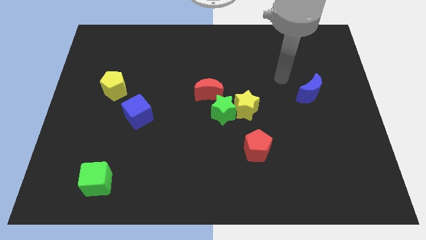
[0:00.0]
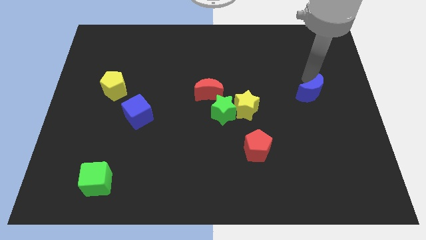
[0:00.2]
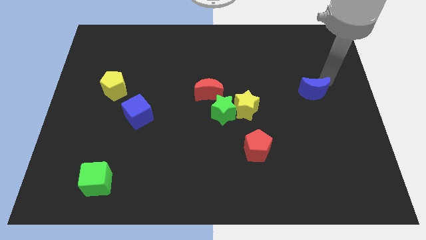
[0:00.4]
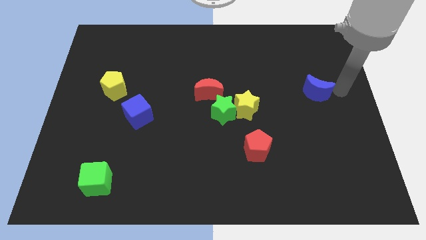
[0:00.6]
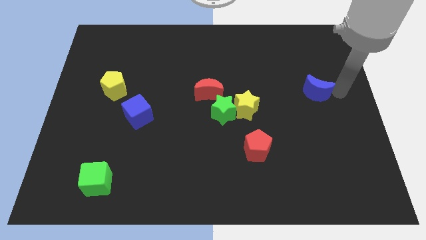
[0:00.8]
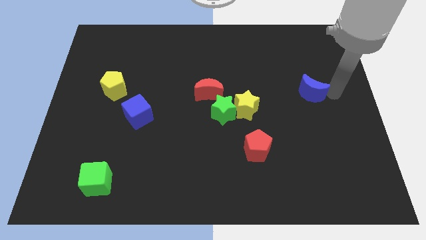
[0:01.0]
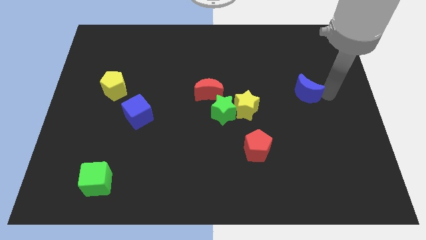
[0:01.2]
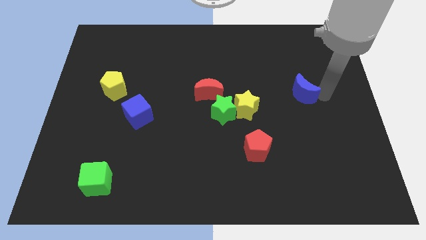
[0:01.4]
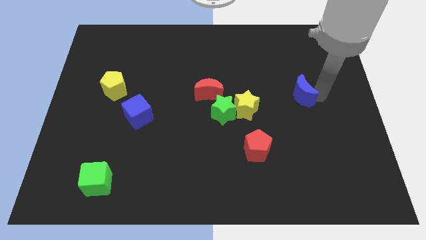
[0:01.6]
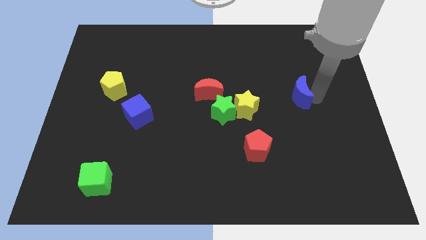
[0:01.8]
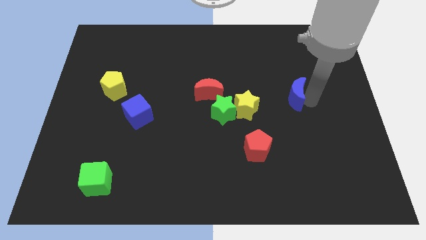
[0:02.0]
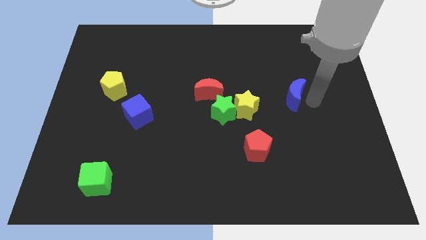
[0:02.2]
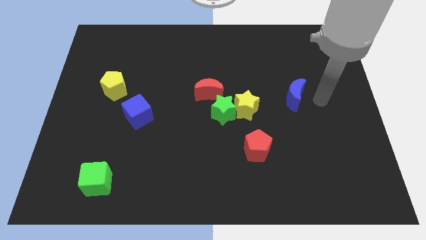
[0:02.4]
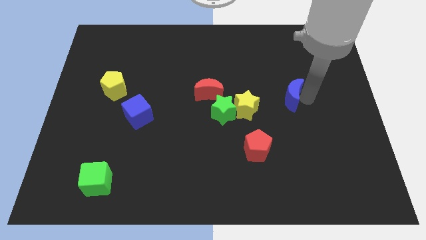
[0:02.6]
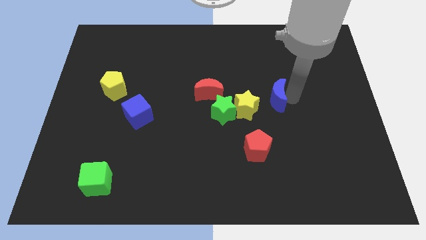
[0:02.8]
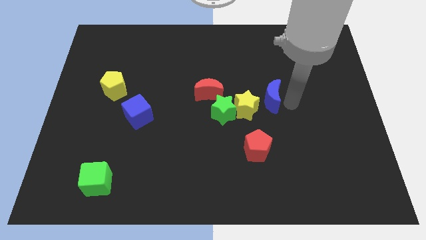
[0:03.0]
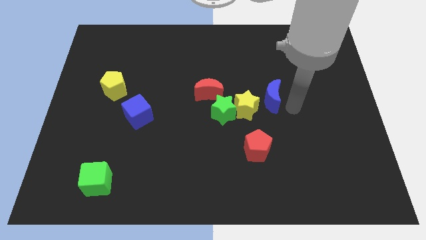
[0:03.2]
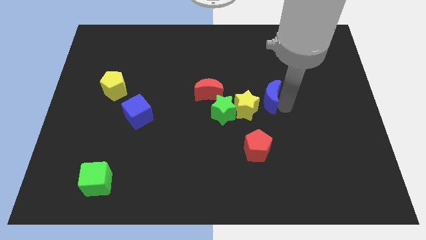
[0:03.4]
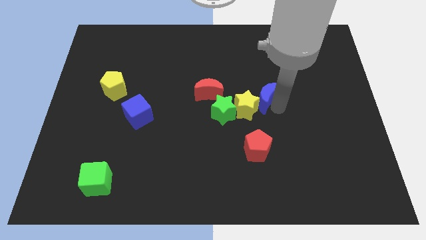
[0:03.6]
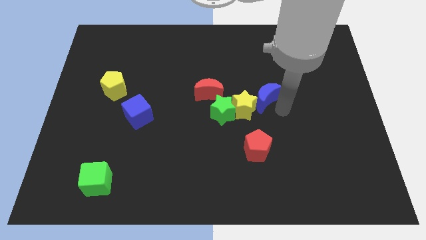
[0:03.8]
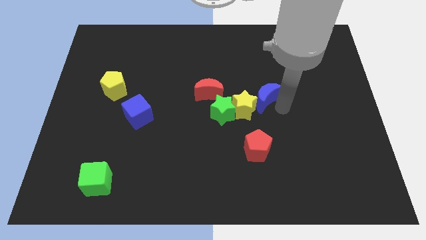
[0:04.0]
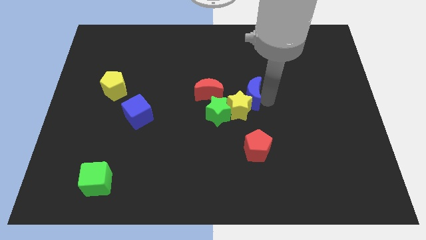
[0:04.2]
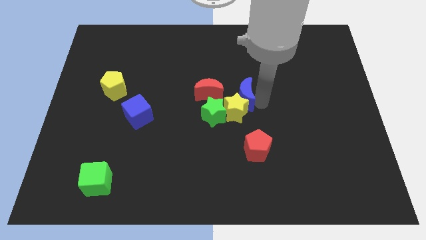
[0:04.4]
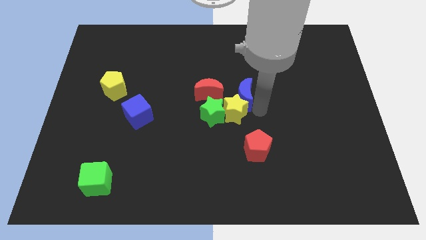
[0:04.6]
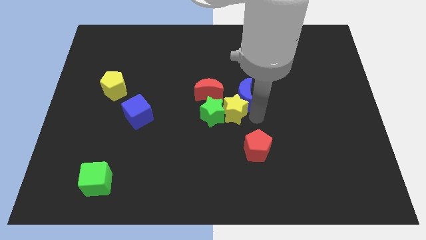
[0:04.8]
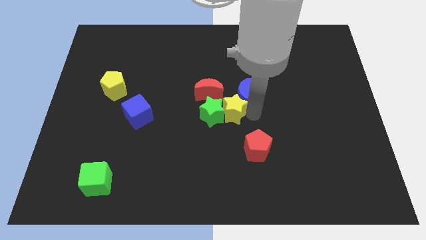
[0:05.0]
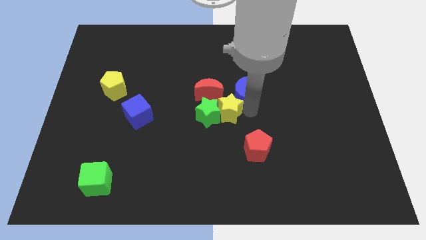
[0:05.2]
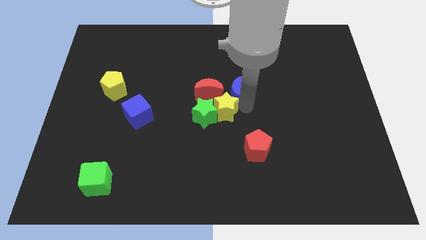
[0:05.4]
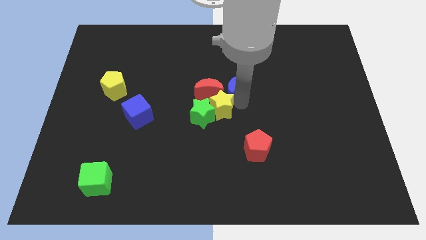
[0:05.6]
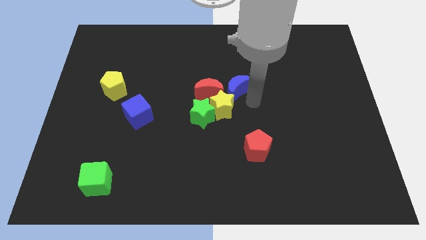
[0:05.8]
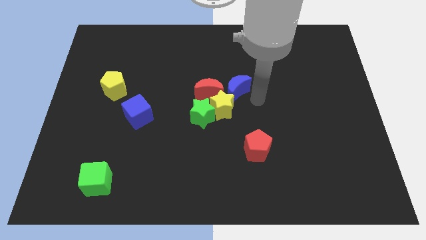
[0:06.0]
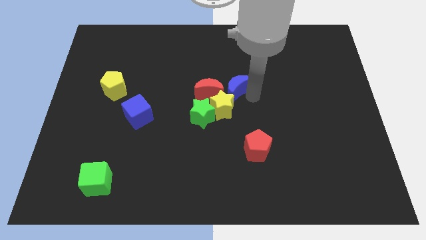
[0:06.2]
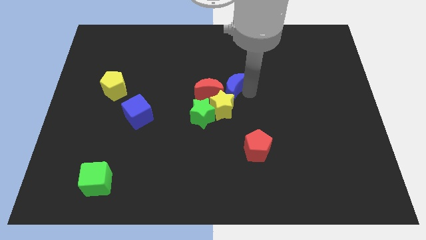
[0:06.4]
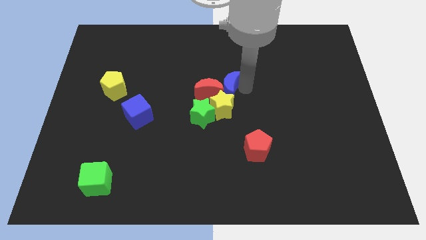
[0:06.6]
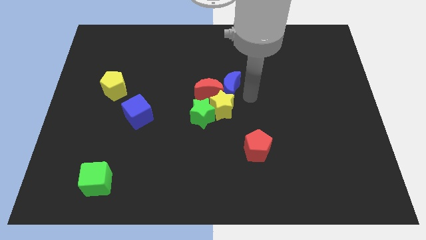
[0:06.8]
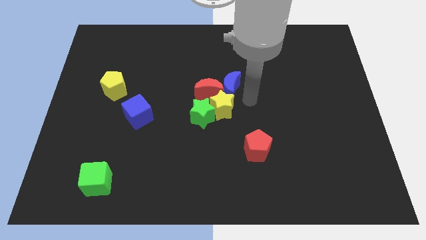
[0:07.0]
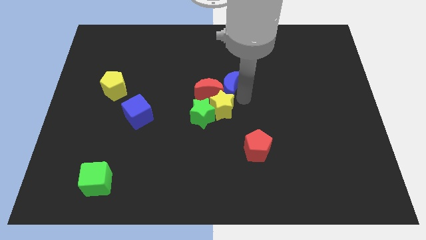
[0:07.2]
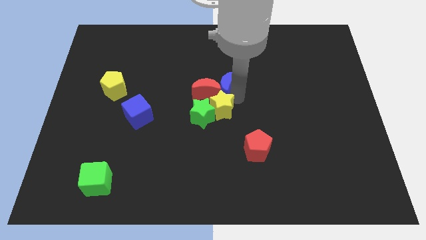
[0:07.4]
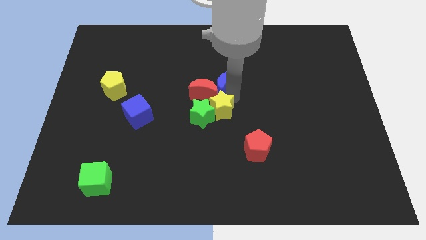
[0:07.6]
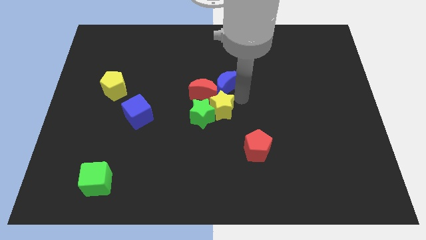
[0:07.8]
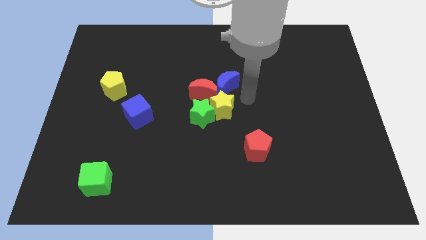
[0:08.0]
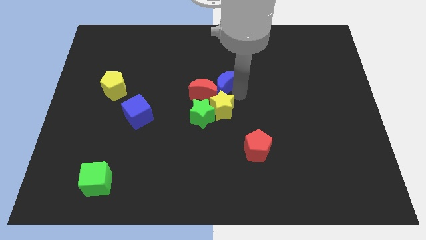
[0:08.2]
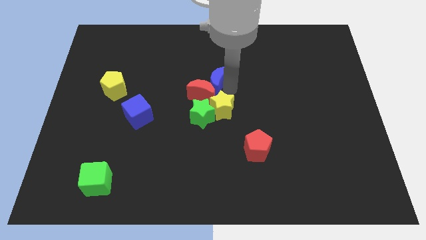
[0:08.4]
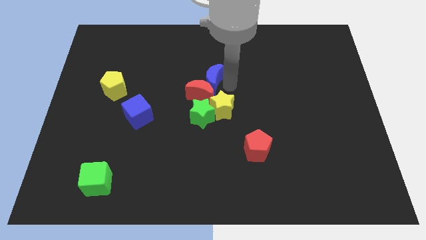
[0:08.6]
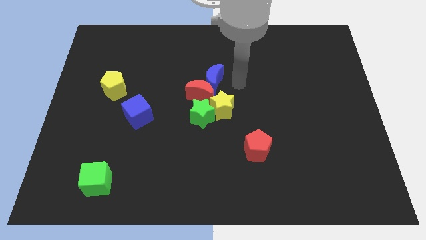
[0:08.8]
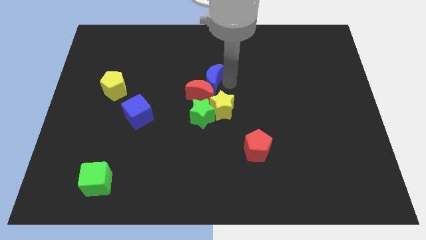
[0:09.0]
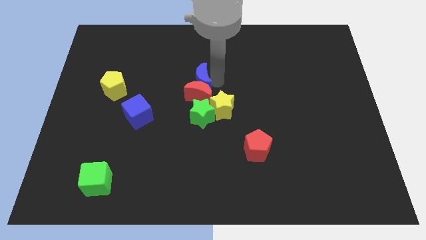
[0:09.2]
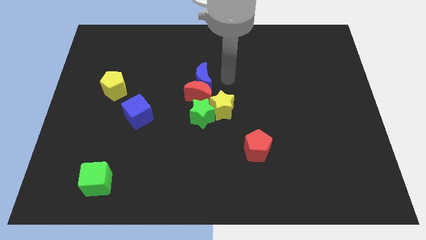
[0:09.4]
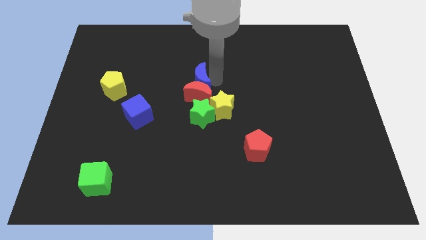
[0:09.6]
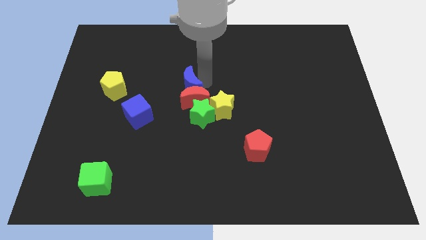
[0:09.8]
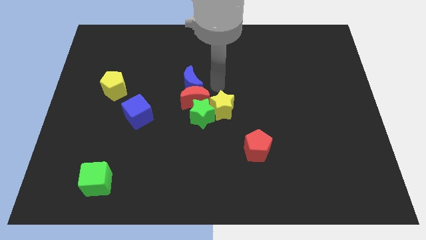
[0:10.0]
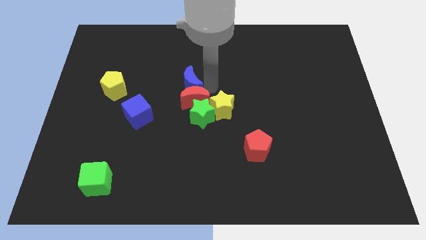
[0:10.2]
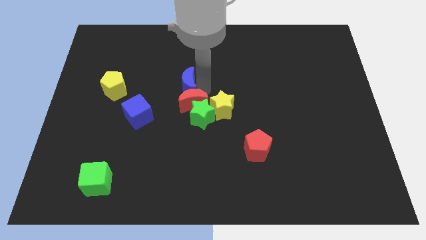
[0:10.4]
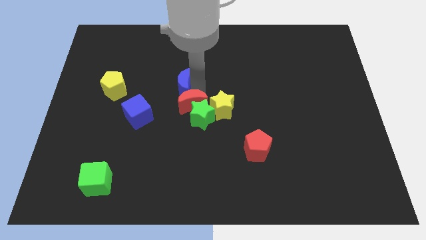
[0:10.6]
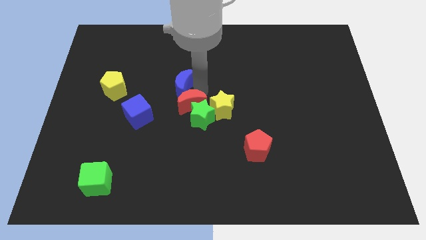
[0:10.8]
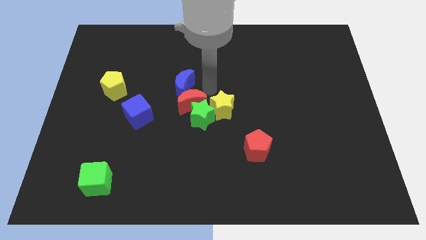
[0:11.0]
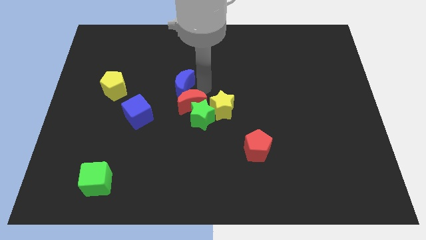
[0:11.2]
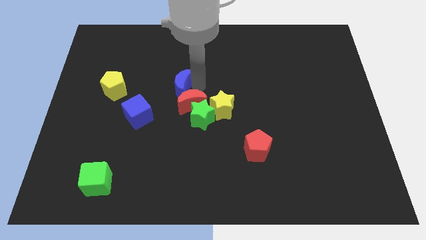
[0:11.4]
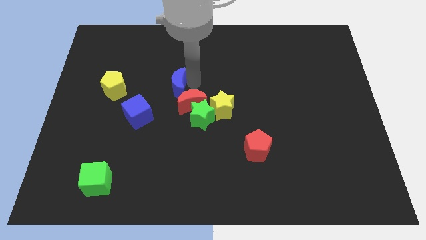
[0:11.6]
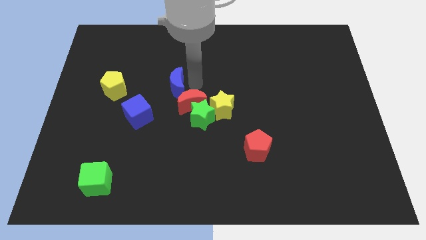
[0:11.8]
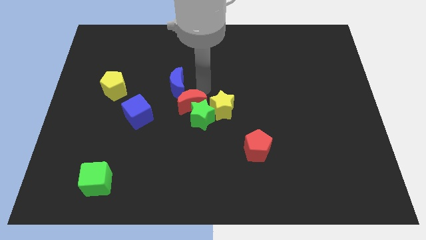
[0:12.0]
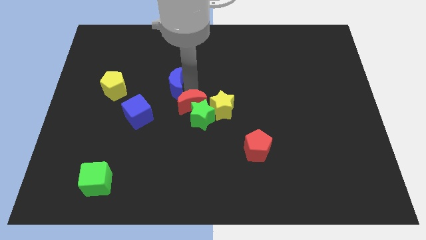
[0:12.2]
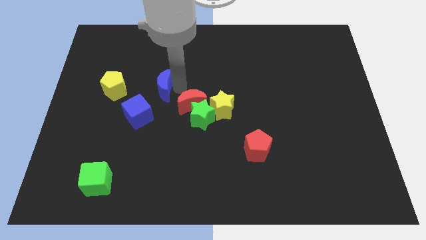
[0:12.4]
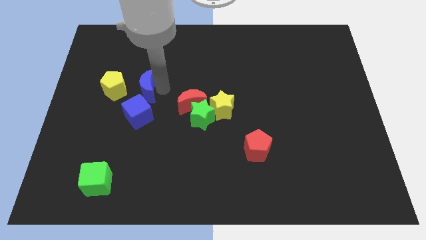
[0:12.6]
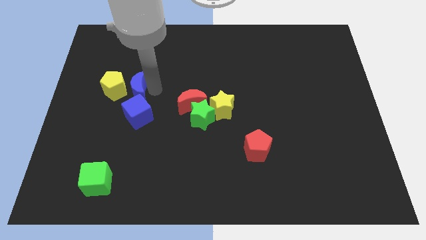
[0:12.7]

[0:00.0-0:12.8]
move the blue moon to the yellow pentagon

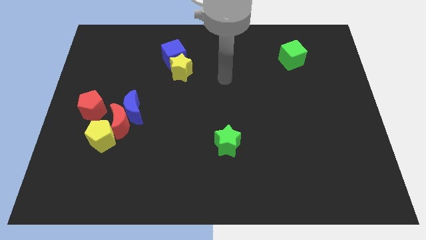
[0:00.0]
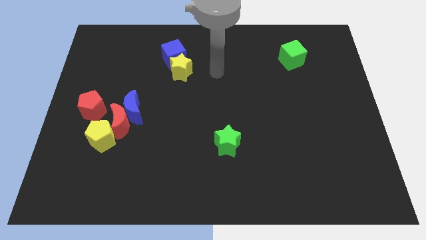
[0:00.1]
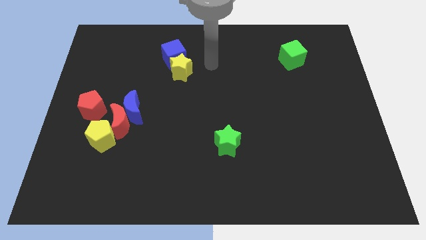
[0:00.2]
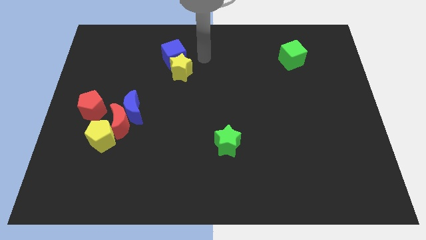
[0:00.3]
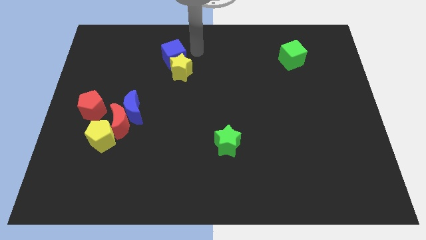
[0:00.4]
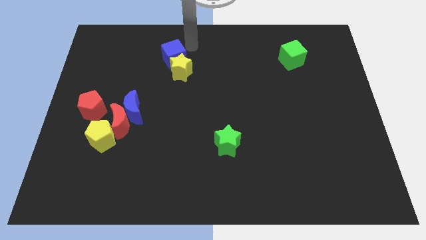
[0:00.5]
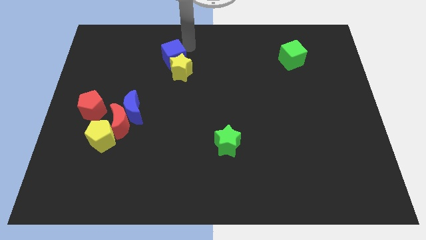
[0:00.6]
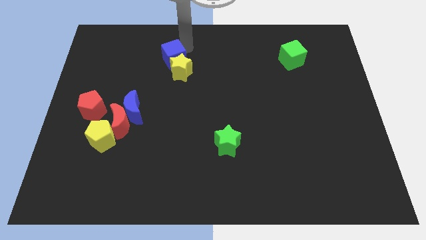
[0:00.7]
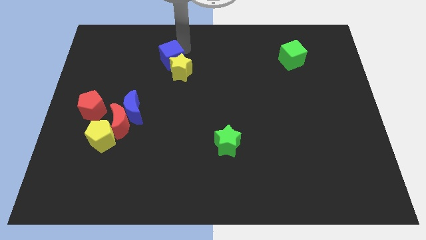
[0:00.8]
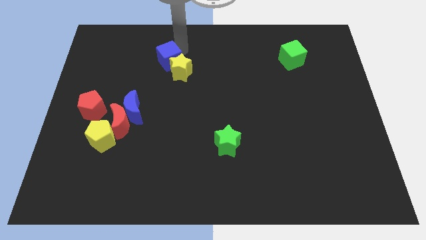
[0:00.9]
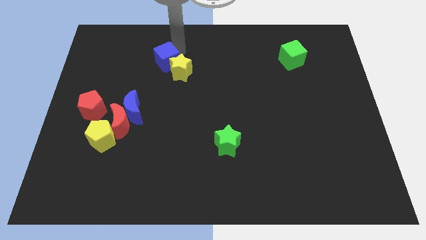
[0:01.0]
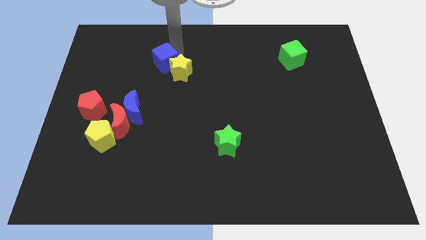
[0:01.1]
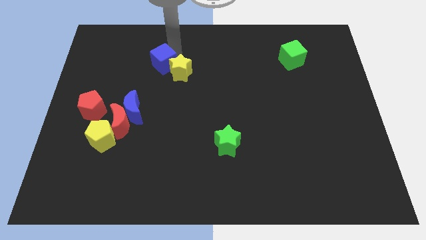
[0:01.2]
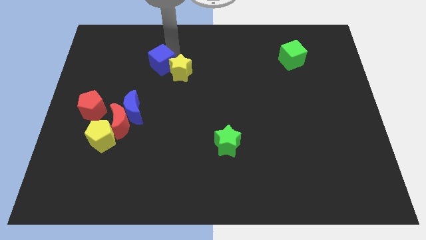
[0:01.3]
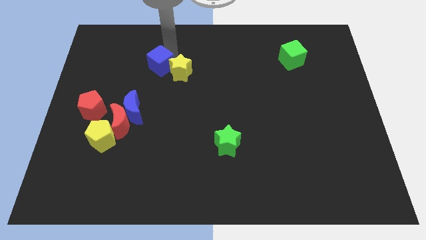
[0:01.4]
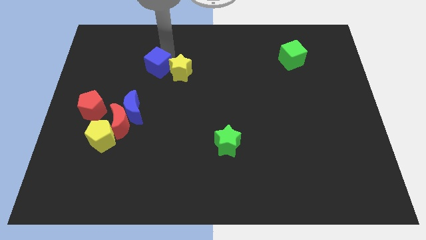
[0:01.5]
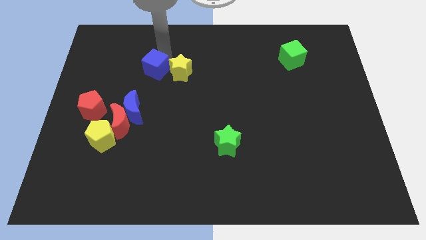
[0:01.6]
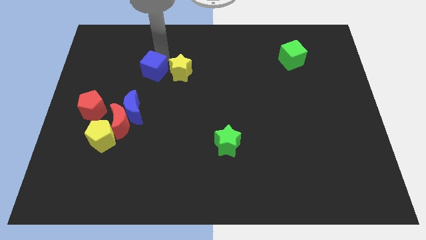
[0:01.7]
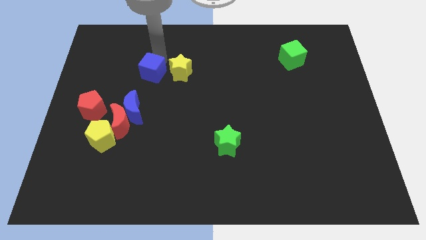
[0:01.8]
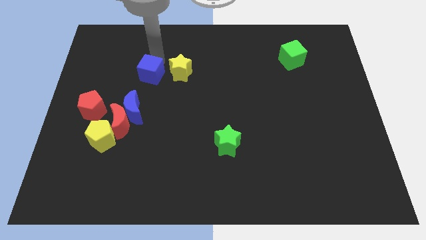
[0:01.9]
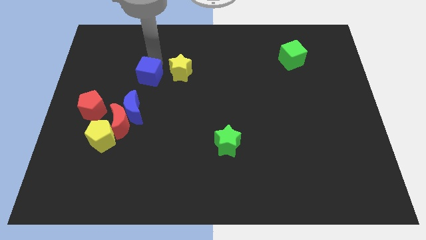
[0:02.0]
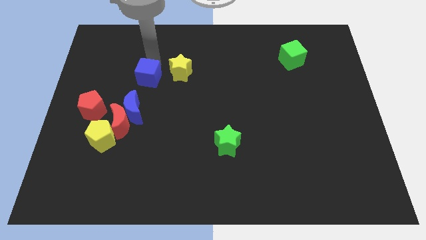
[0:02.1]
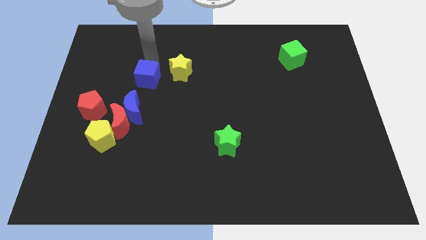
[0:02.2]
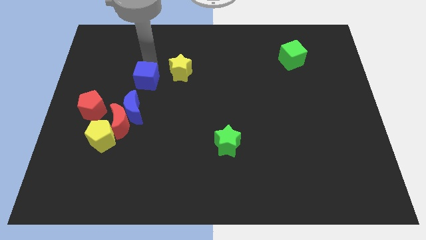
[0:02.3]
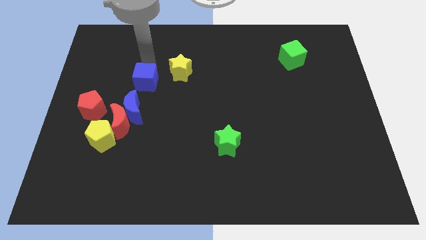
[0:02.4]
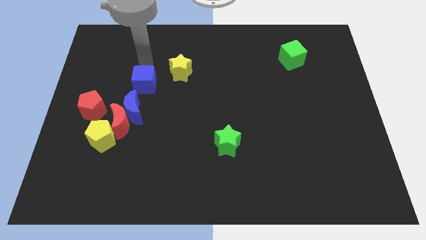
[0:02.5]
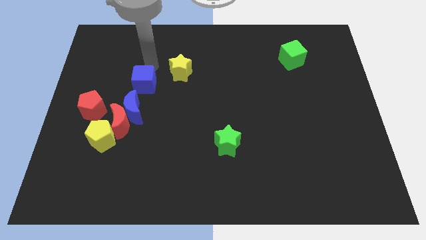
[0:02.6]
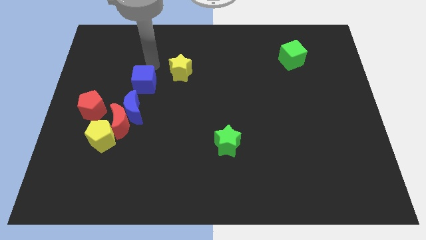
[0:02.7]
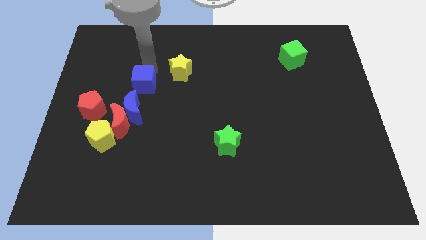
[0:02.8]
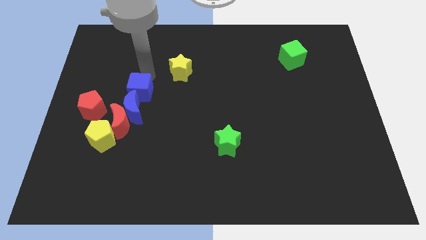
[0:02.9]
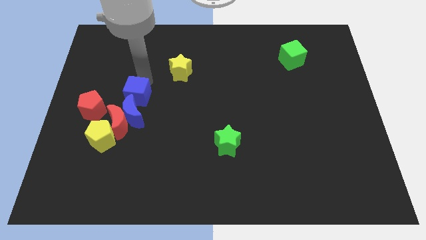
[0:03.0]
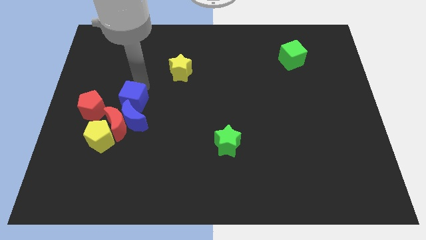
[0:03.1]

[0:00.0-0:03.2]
slide the blue cube to the blue moon
